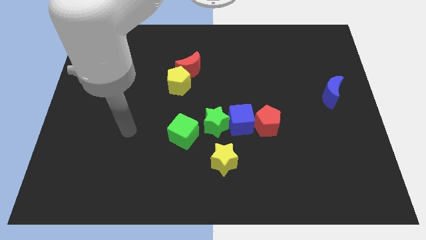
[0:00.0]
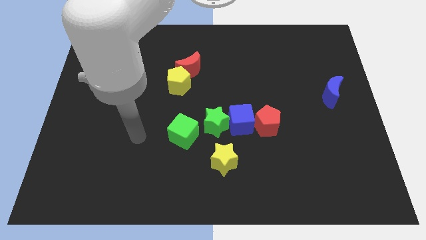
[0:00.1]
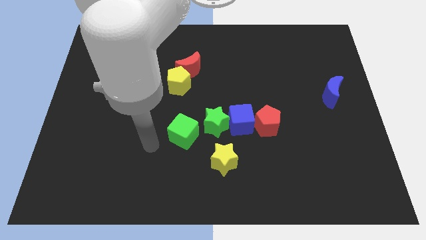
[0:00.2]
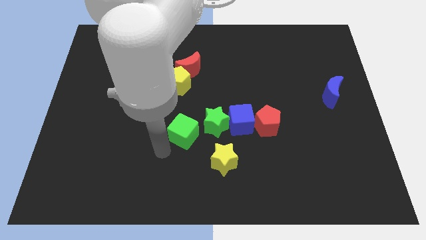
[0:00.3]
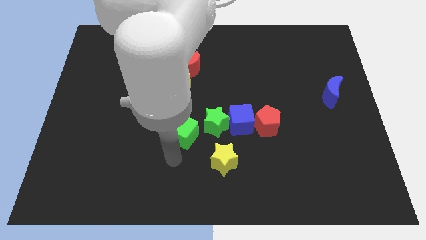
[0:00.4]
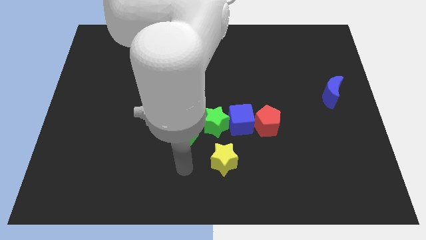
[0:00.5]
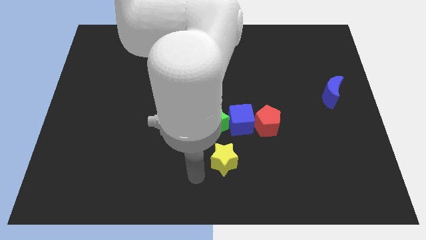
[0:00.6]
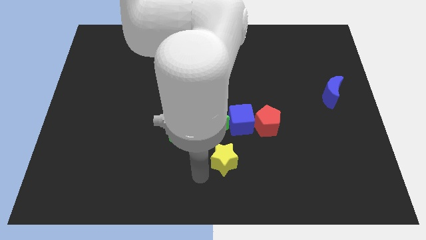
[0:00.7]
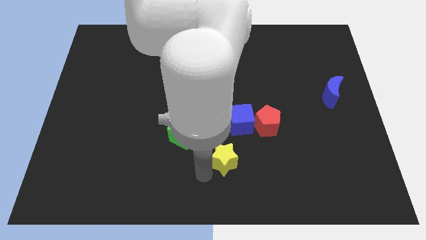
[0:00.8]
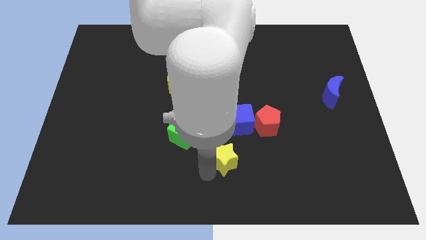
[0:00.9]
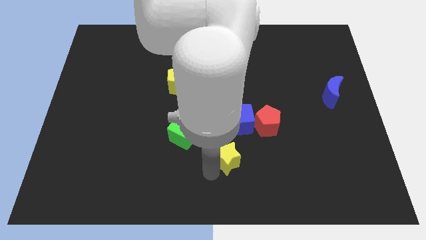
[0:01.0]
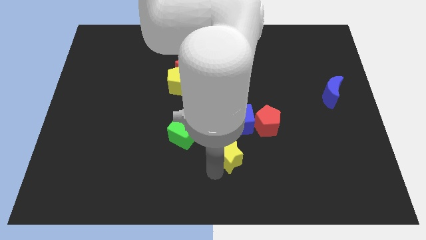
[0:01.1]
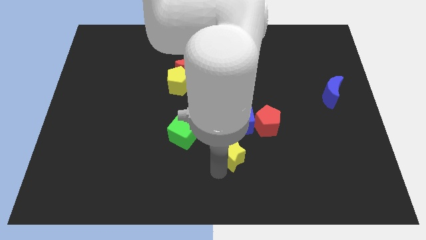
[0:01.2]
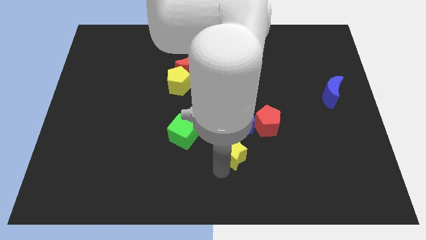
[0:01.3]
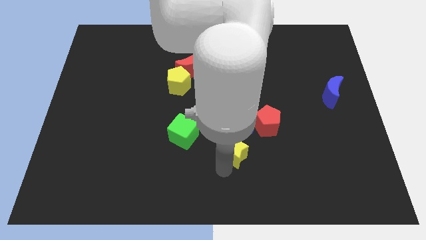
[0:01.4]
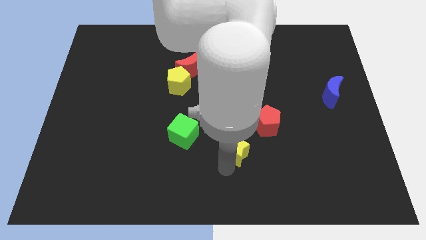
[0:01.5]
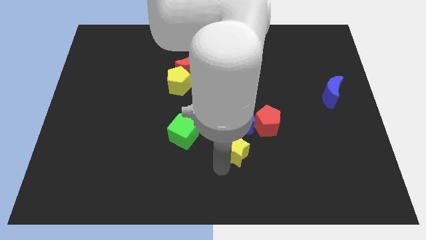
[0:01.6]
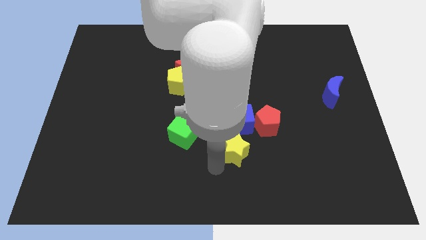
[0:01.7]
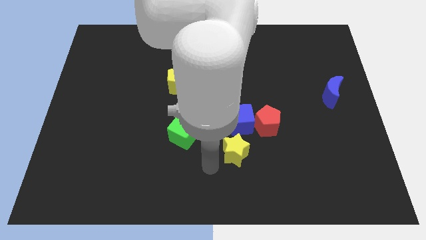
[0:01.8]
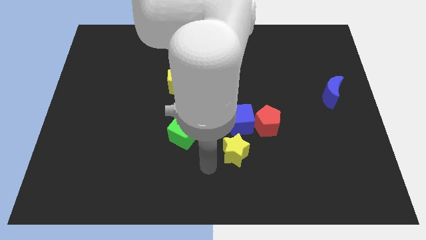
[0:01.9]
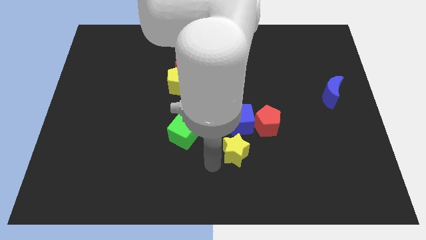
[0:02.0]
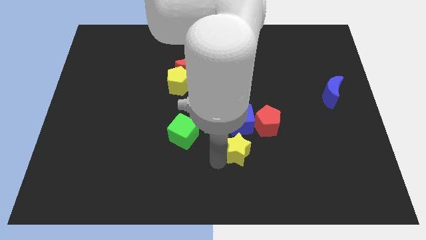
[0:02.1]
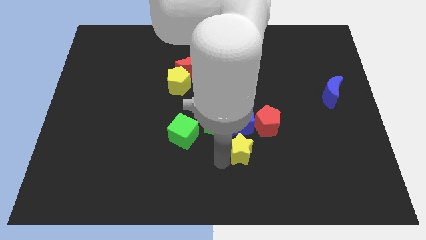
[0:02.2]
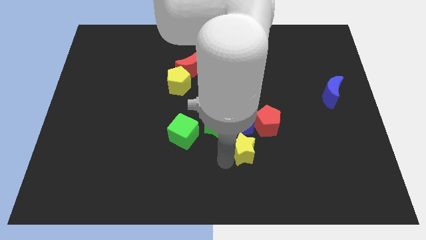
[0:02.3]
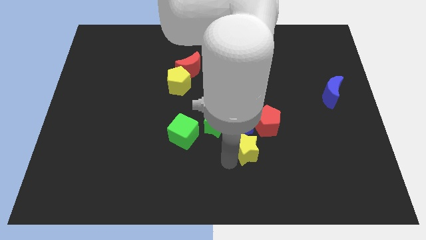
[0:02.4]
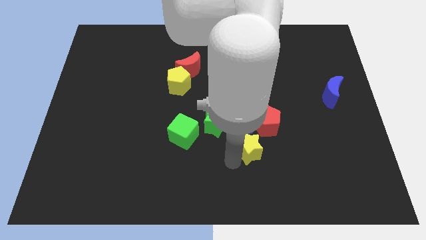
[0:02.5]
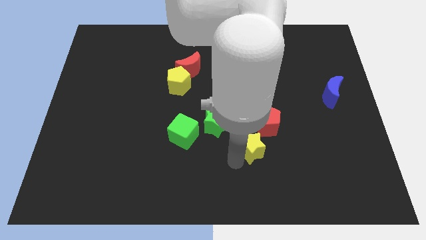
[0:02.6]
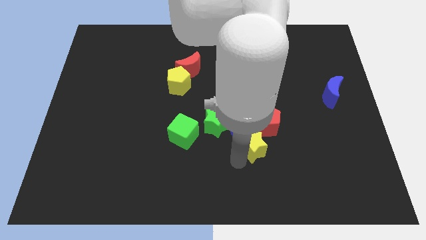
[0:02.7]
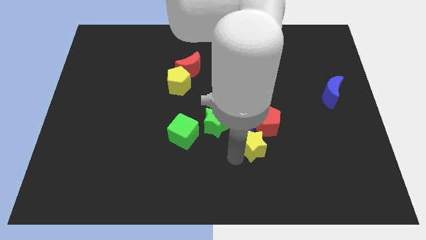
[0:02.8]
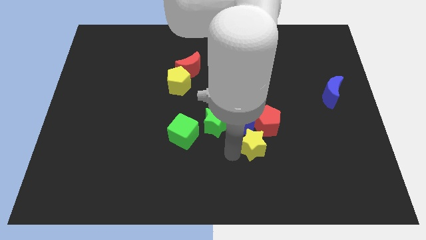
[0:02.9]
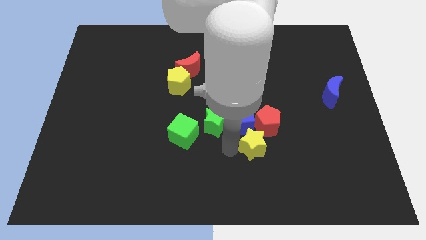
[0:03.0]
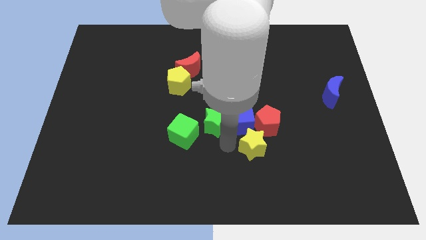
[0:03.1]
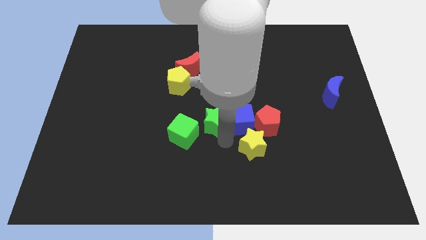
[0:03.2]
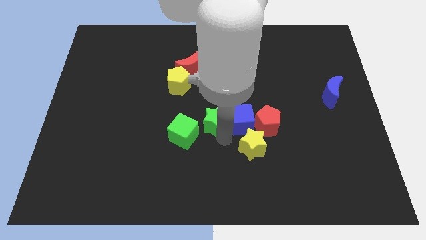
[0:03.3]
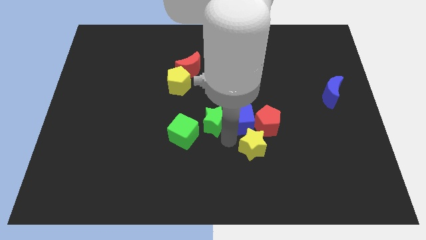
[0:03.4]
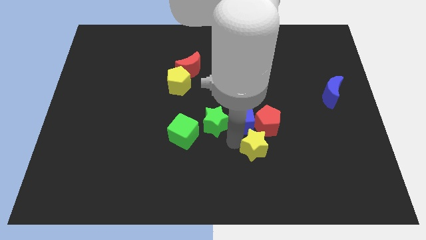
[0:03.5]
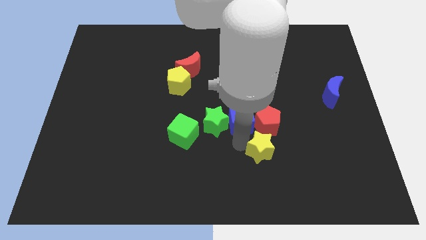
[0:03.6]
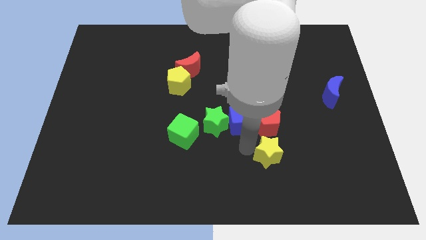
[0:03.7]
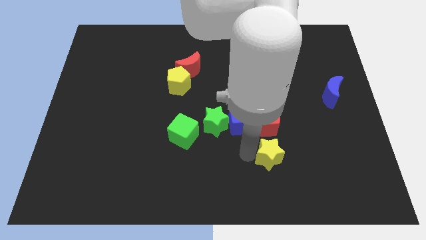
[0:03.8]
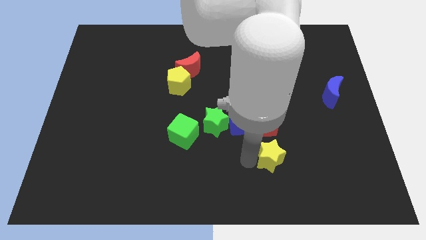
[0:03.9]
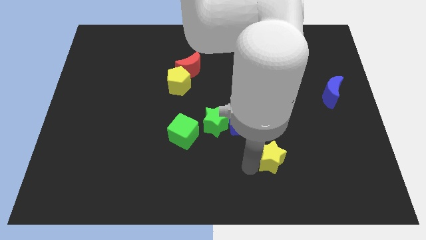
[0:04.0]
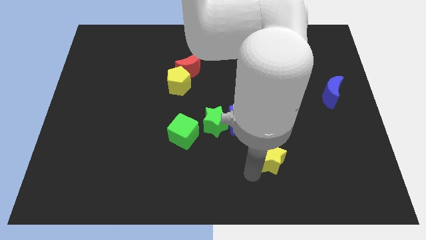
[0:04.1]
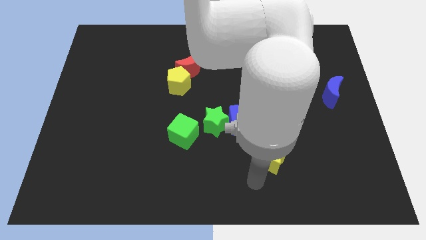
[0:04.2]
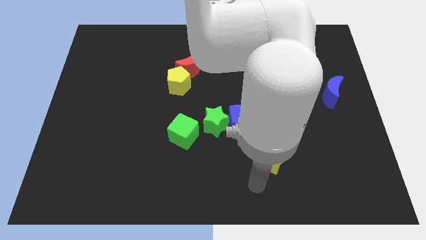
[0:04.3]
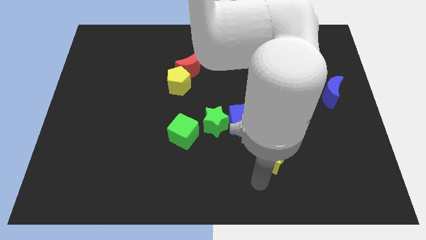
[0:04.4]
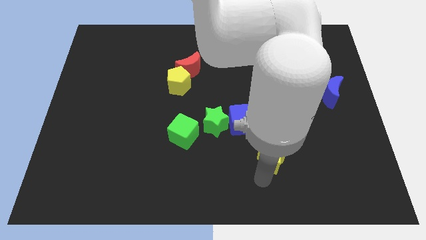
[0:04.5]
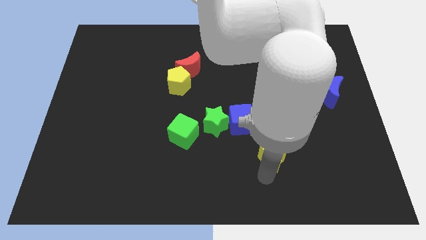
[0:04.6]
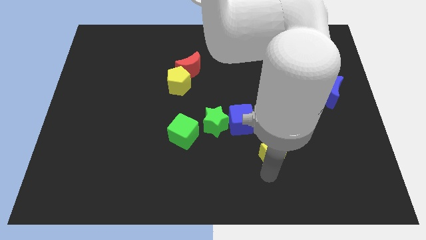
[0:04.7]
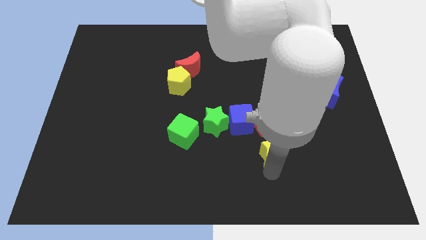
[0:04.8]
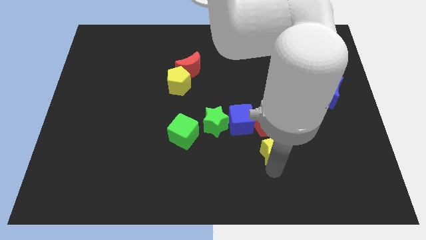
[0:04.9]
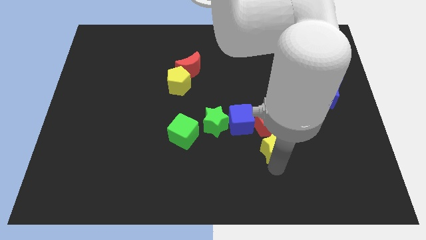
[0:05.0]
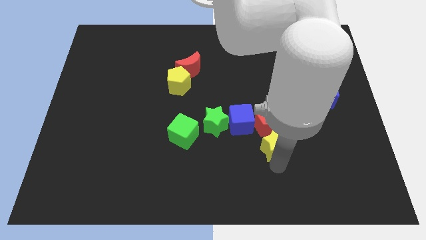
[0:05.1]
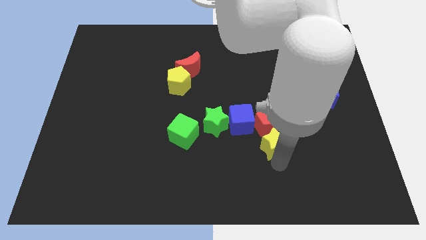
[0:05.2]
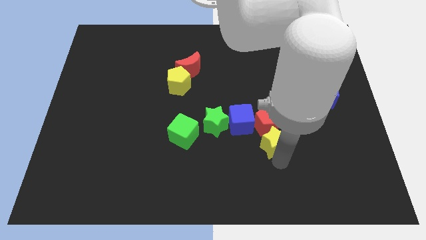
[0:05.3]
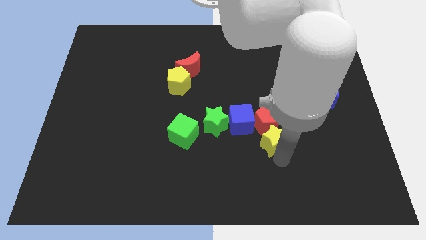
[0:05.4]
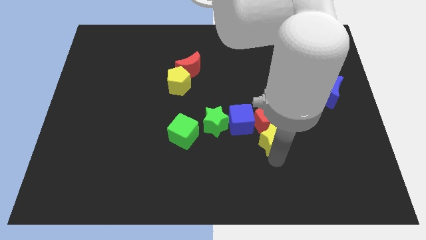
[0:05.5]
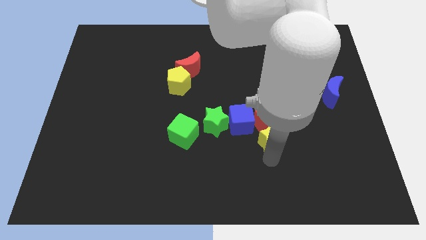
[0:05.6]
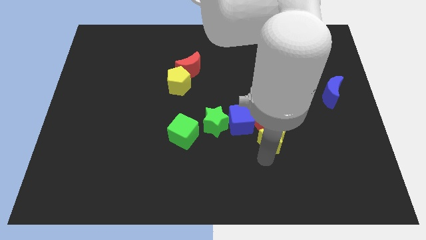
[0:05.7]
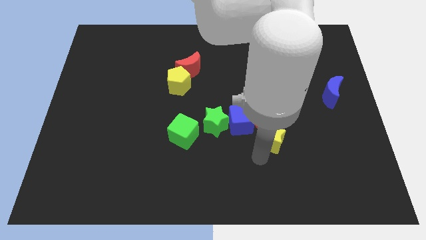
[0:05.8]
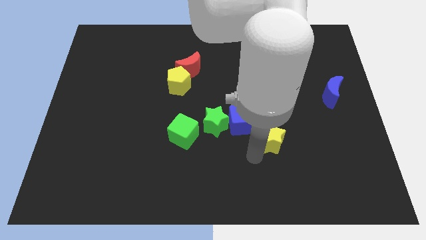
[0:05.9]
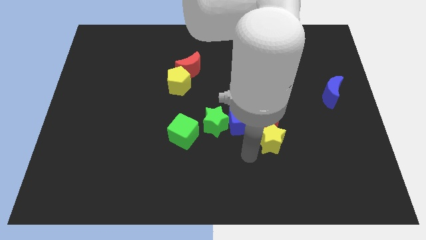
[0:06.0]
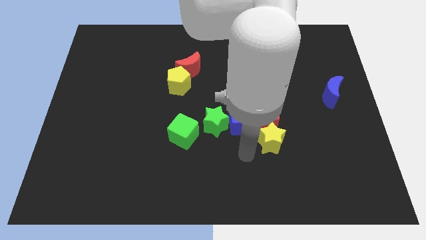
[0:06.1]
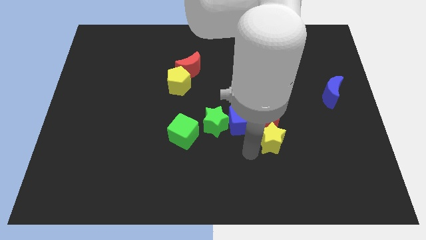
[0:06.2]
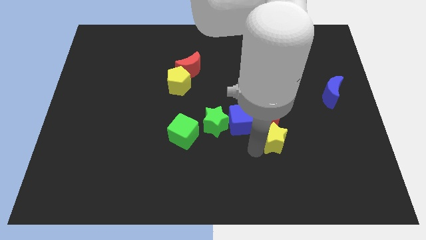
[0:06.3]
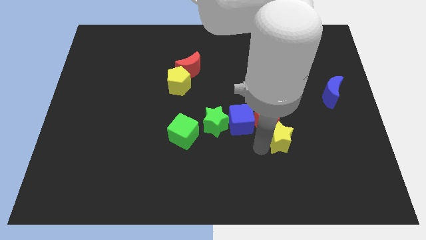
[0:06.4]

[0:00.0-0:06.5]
slide the yellow star just right of the blue cube

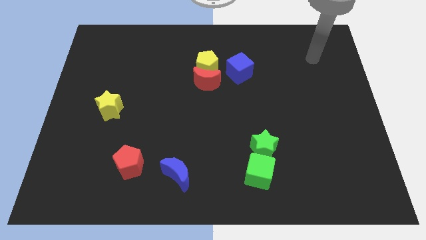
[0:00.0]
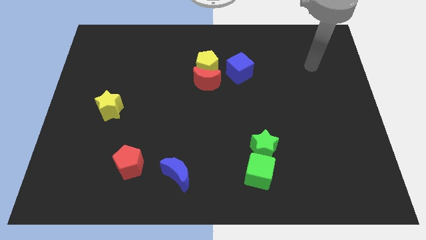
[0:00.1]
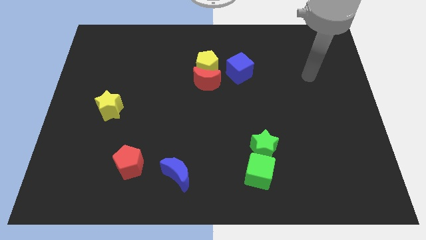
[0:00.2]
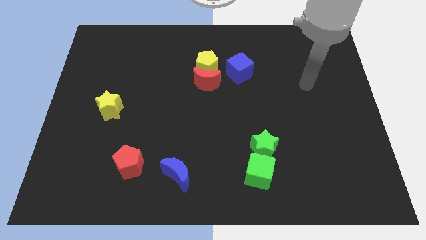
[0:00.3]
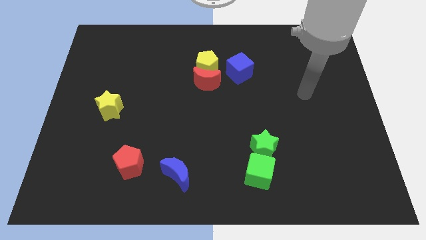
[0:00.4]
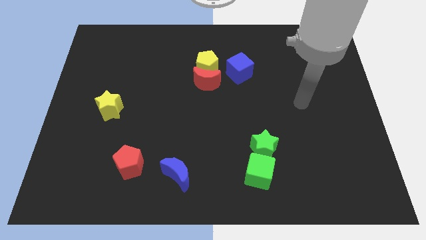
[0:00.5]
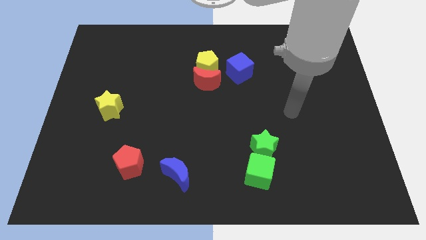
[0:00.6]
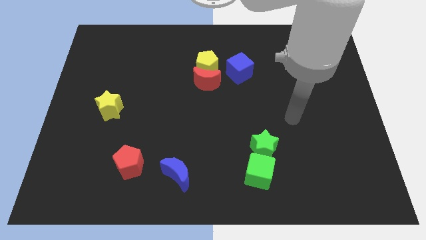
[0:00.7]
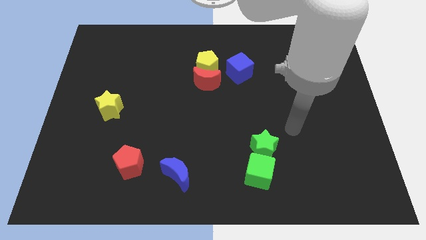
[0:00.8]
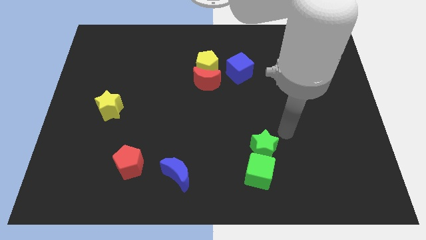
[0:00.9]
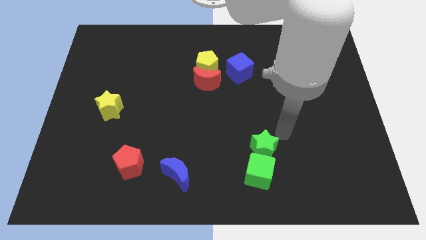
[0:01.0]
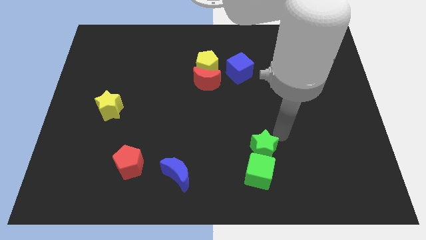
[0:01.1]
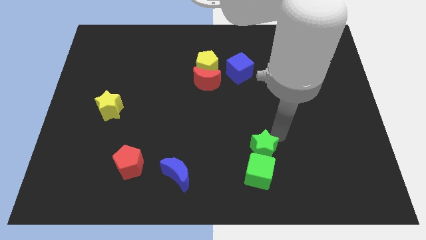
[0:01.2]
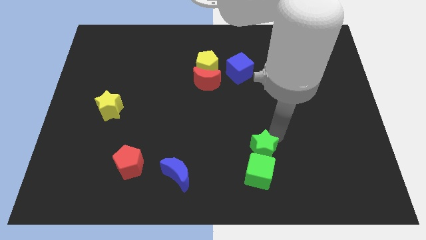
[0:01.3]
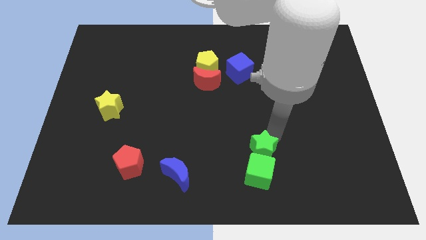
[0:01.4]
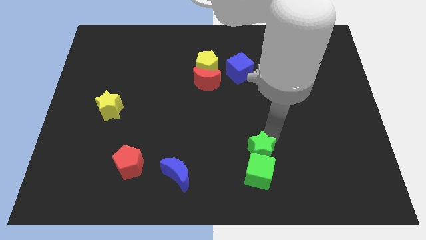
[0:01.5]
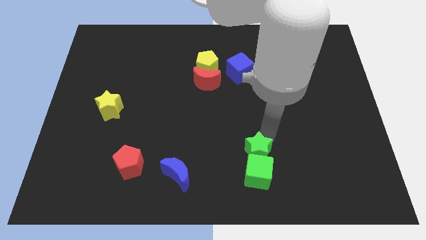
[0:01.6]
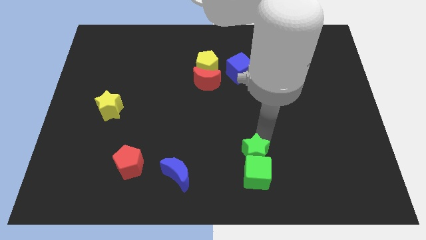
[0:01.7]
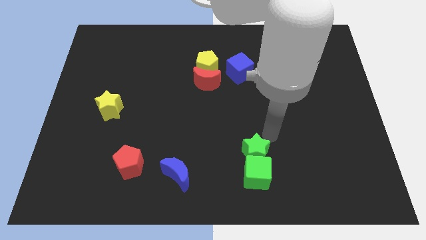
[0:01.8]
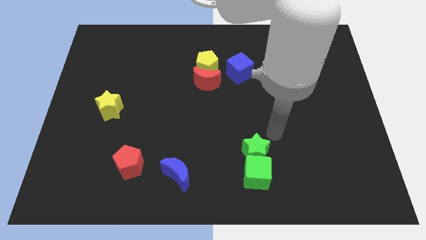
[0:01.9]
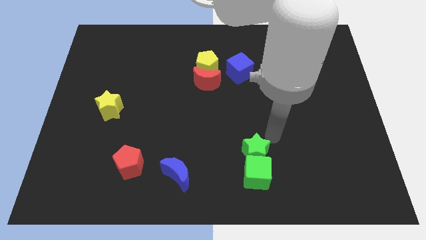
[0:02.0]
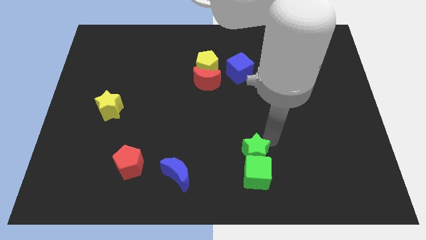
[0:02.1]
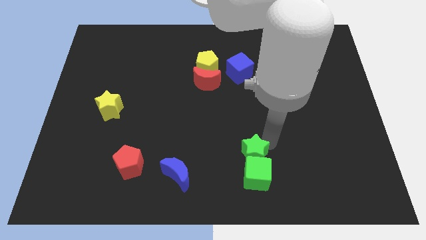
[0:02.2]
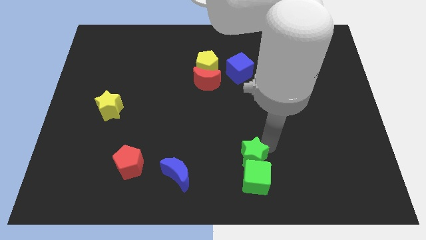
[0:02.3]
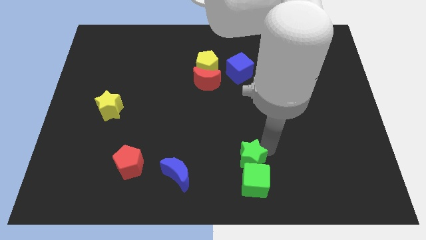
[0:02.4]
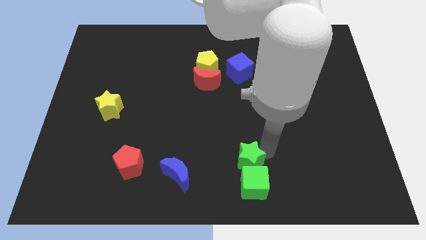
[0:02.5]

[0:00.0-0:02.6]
move the green star to the right side of the blue moon
